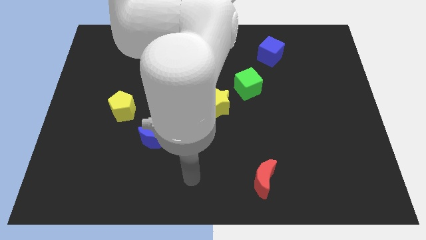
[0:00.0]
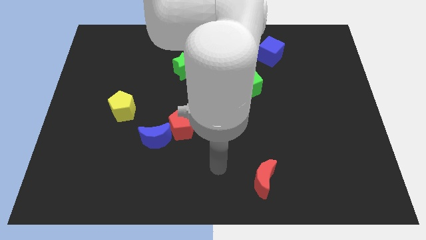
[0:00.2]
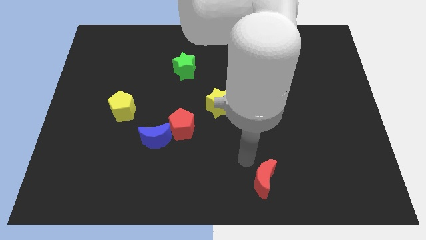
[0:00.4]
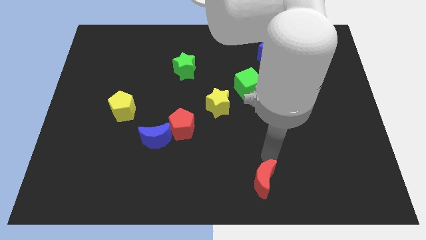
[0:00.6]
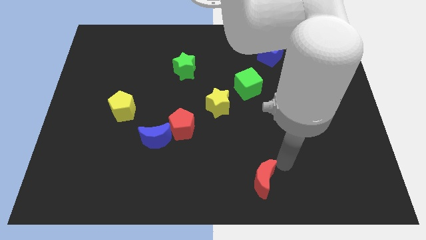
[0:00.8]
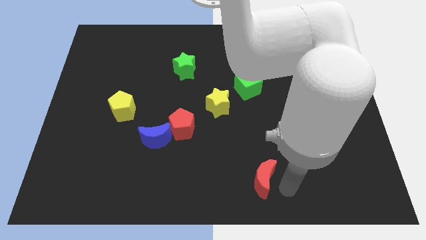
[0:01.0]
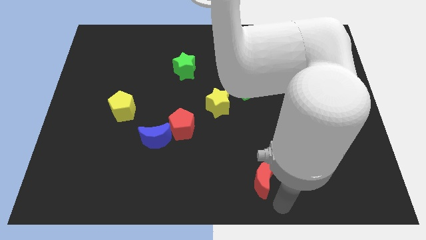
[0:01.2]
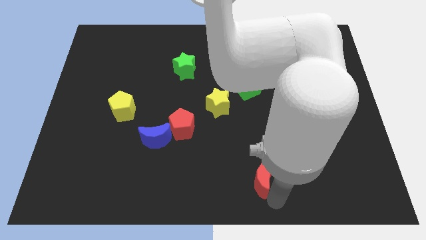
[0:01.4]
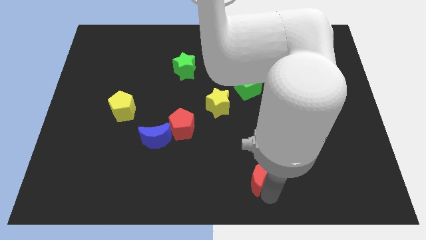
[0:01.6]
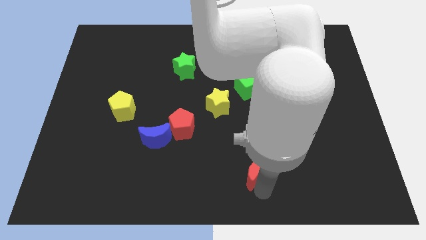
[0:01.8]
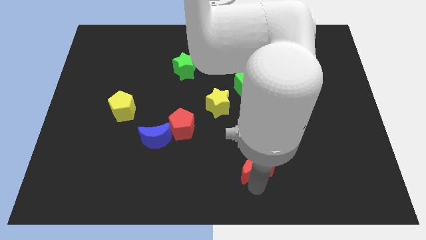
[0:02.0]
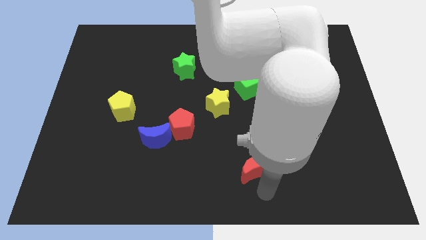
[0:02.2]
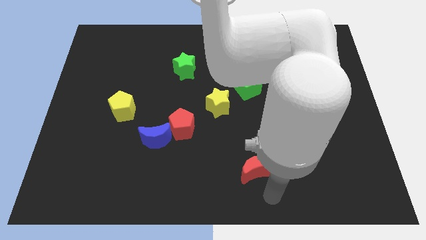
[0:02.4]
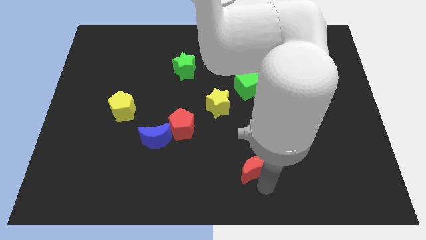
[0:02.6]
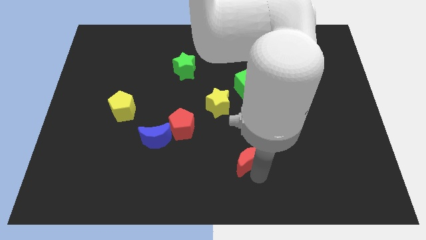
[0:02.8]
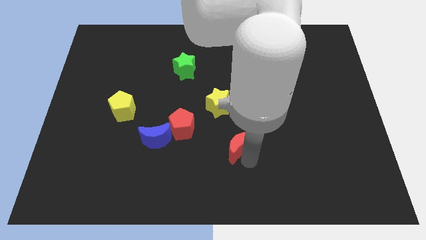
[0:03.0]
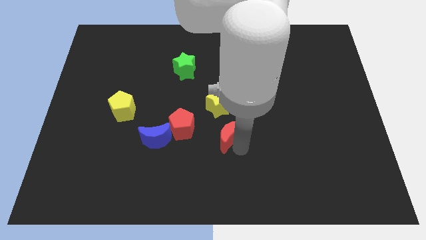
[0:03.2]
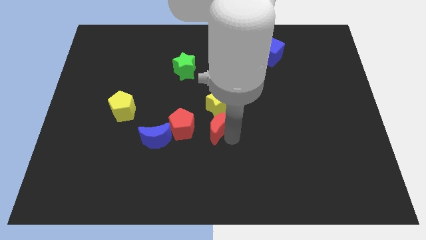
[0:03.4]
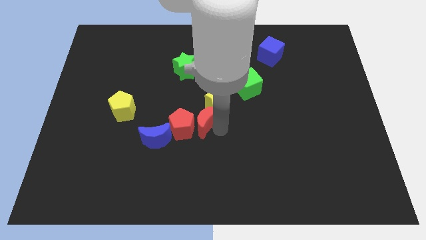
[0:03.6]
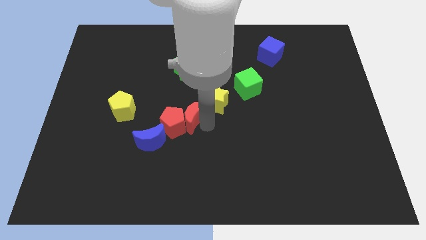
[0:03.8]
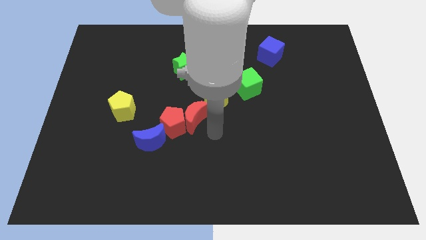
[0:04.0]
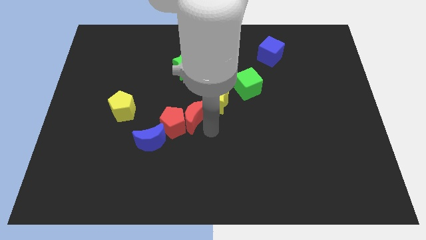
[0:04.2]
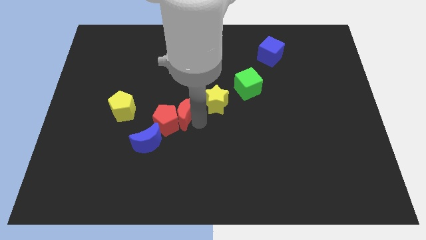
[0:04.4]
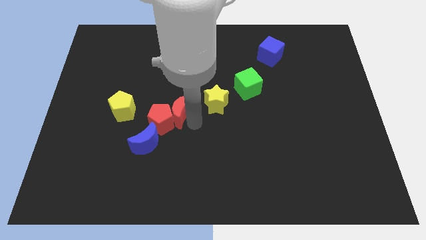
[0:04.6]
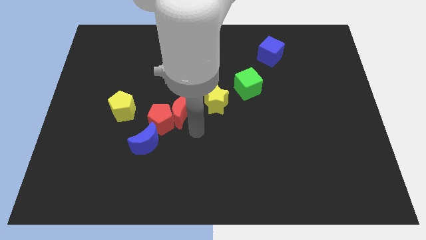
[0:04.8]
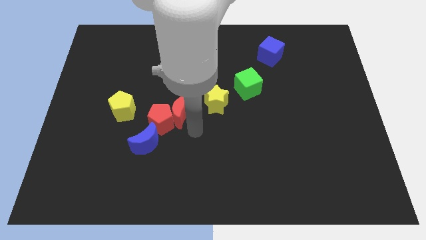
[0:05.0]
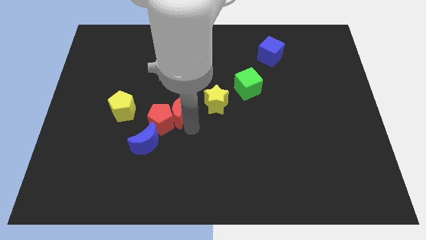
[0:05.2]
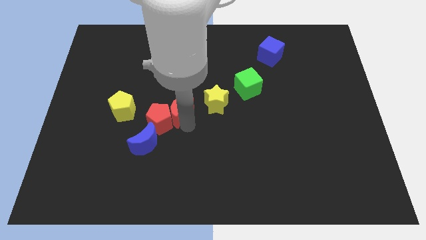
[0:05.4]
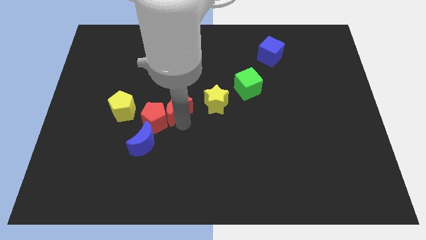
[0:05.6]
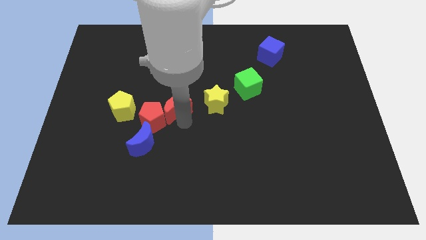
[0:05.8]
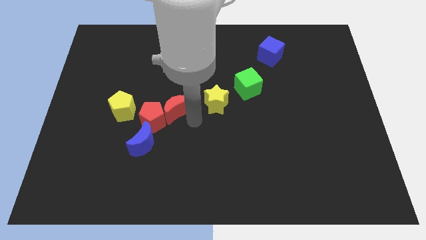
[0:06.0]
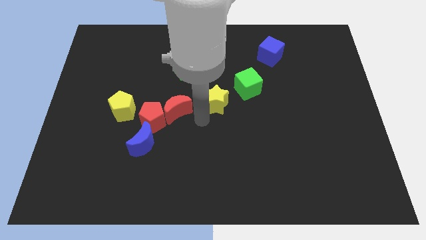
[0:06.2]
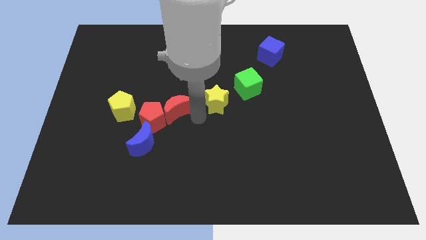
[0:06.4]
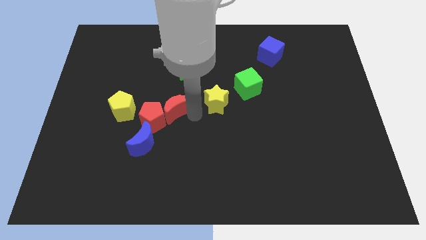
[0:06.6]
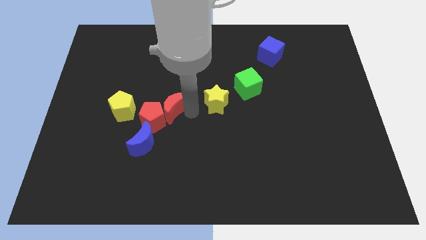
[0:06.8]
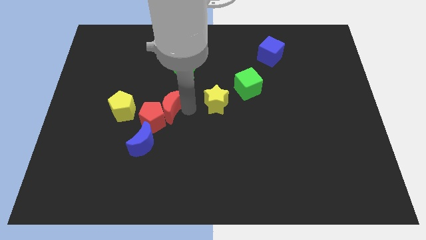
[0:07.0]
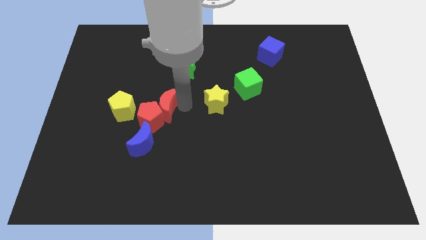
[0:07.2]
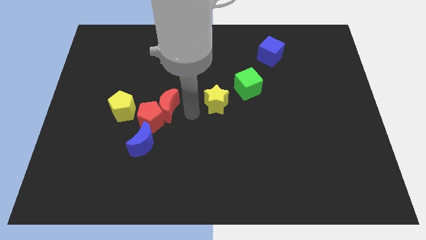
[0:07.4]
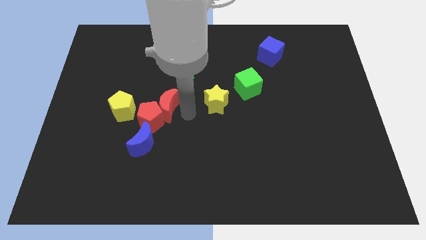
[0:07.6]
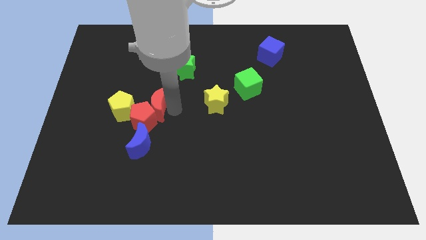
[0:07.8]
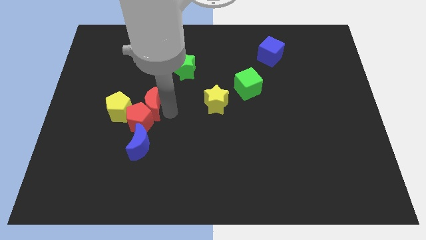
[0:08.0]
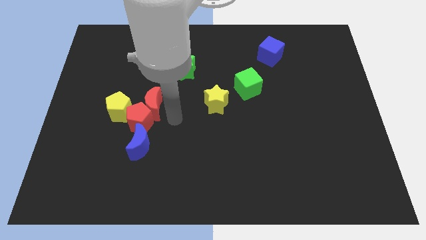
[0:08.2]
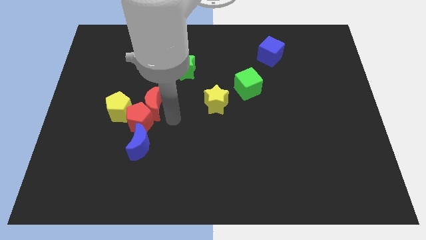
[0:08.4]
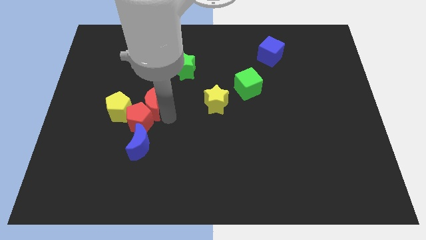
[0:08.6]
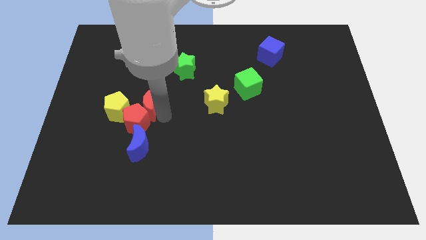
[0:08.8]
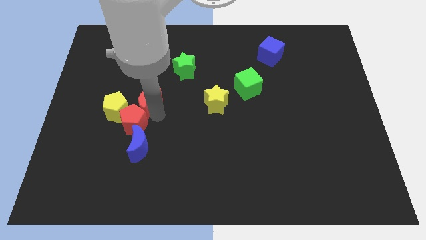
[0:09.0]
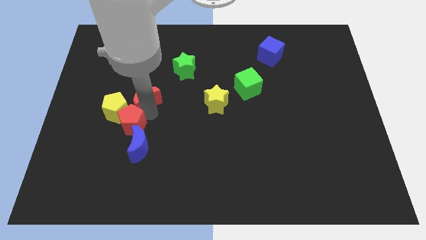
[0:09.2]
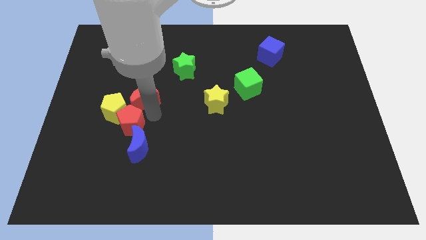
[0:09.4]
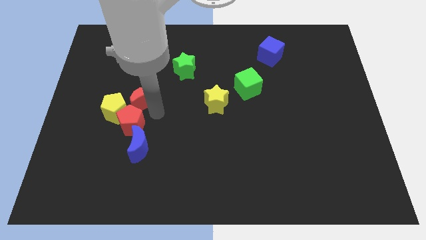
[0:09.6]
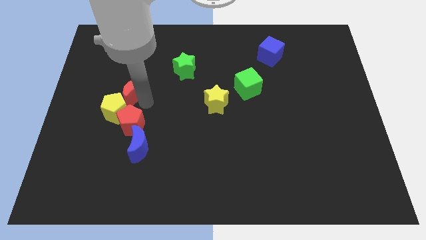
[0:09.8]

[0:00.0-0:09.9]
put the red moon above the yellow pentagon

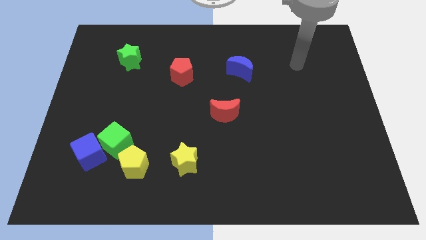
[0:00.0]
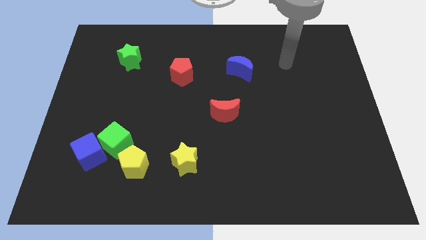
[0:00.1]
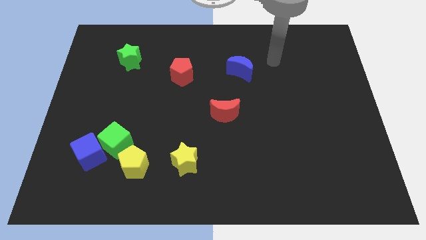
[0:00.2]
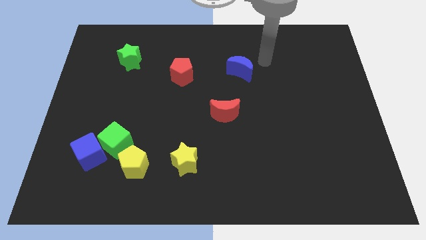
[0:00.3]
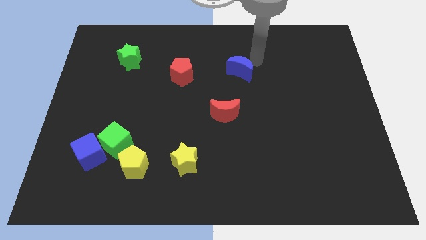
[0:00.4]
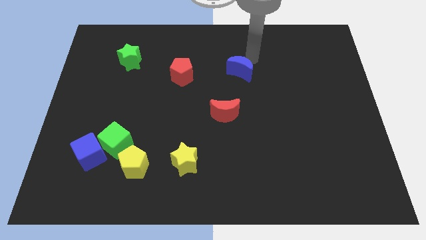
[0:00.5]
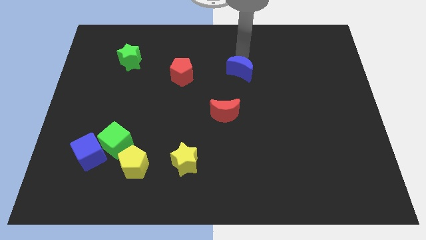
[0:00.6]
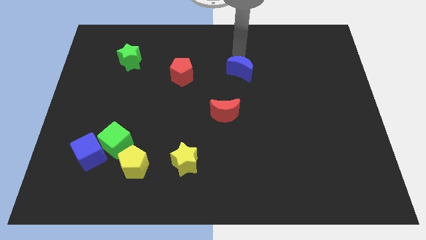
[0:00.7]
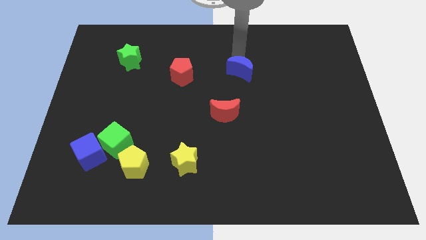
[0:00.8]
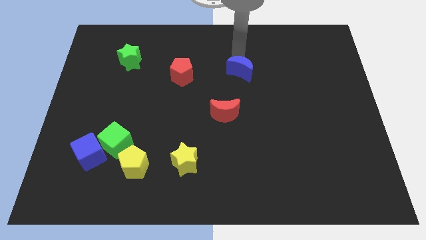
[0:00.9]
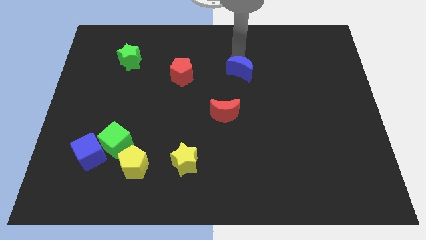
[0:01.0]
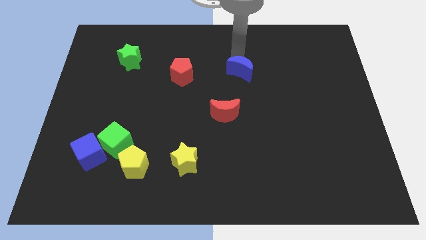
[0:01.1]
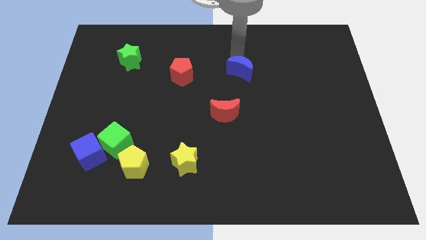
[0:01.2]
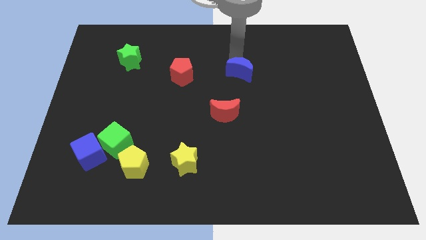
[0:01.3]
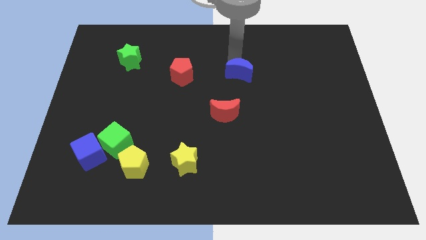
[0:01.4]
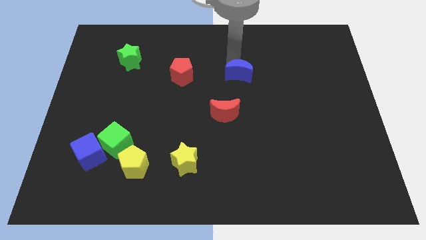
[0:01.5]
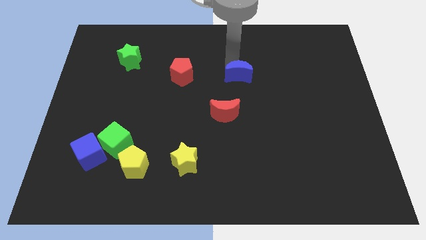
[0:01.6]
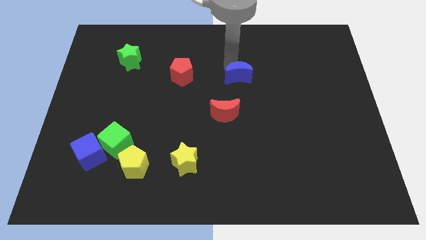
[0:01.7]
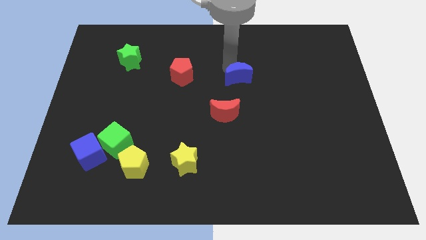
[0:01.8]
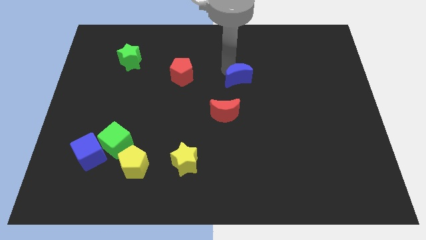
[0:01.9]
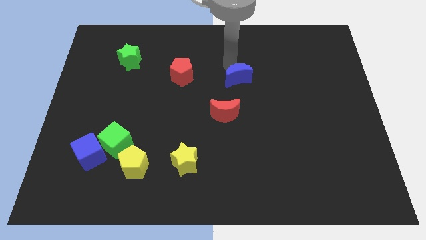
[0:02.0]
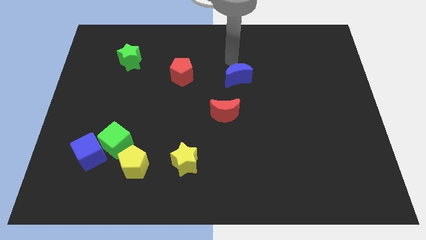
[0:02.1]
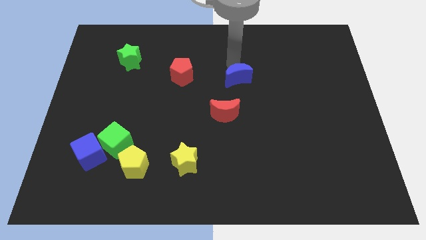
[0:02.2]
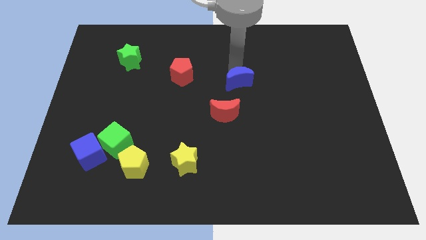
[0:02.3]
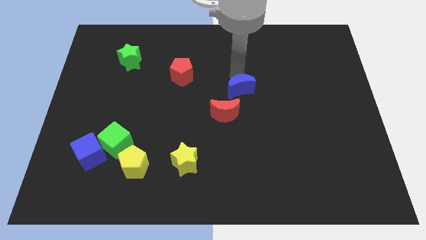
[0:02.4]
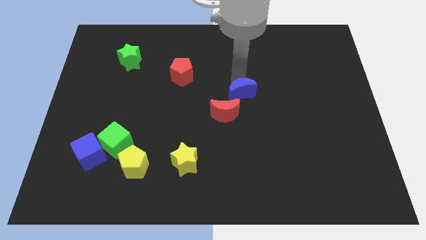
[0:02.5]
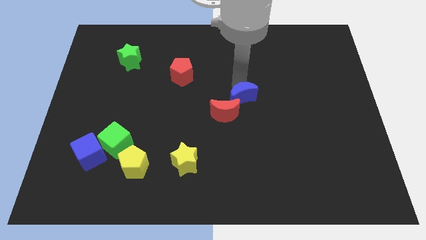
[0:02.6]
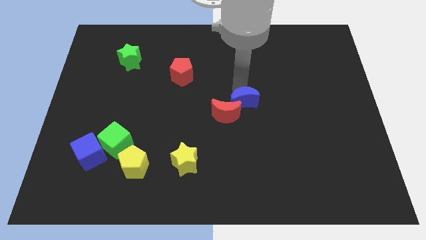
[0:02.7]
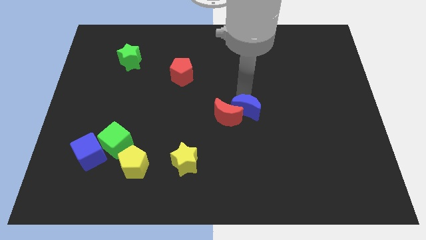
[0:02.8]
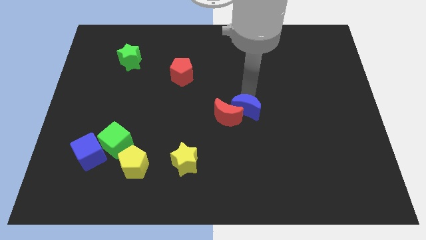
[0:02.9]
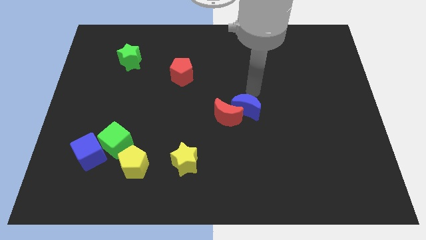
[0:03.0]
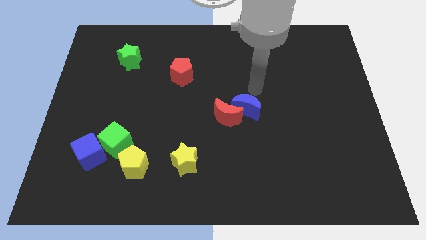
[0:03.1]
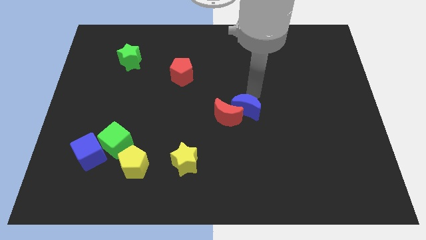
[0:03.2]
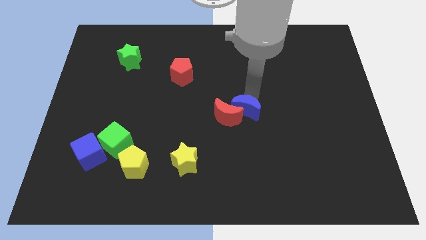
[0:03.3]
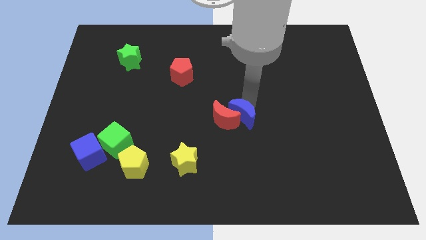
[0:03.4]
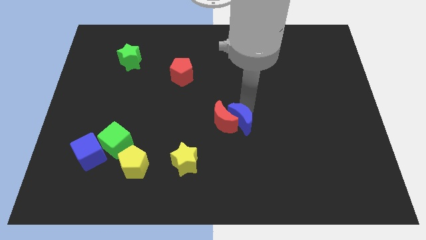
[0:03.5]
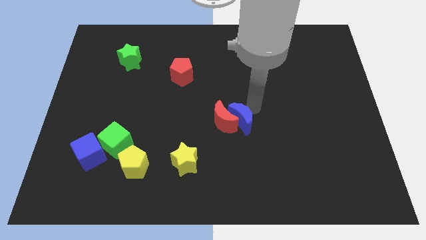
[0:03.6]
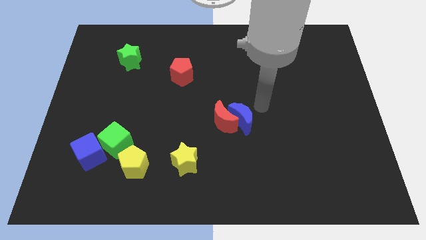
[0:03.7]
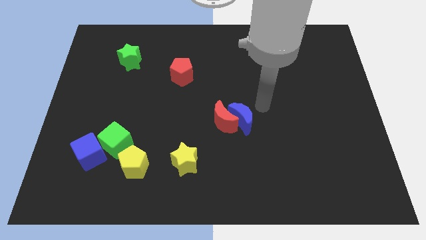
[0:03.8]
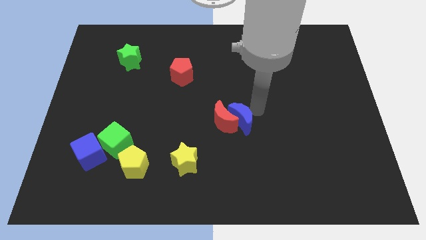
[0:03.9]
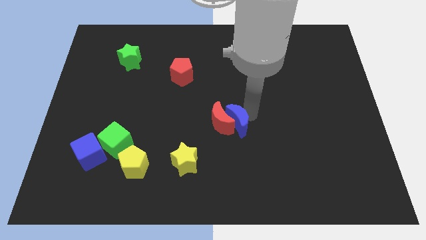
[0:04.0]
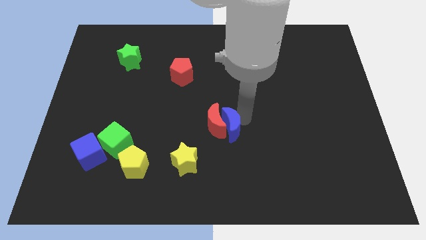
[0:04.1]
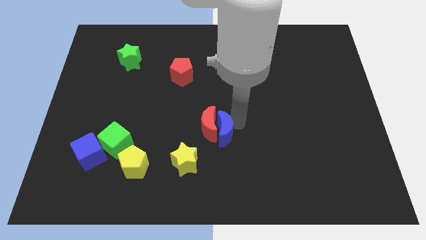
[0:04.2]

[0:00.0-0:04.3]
slide the blue moon to the top right of the yellow star
